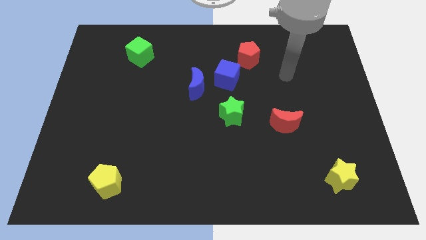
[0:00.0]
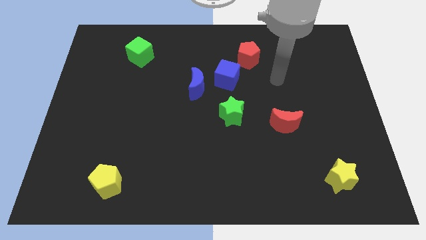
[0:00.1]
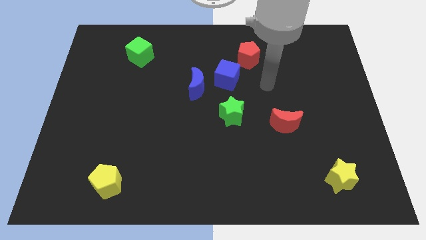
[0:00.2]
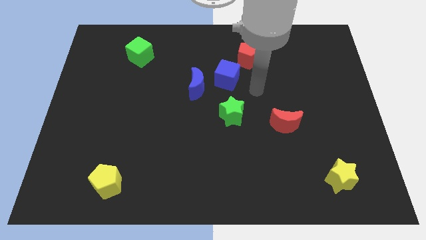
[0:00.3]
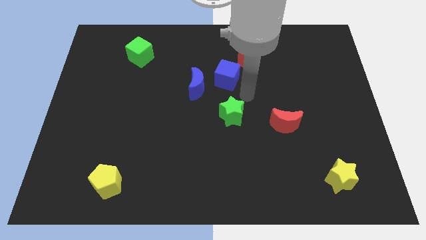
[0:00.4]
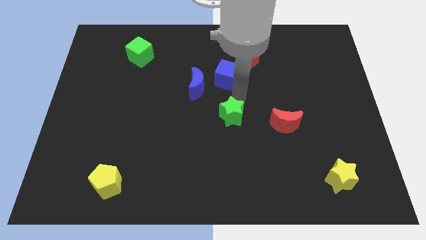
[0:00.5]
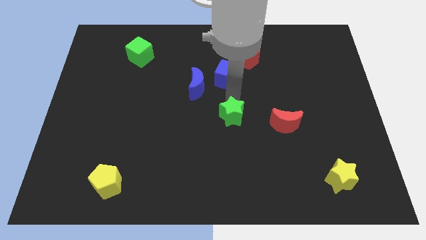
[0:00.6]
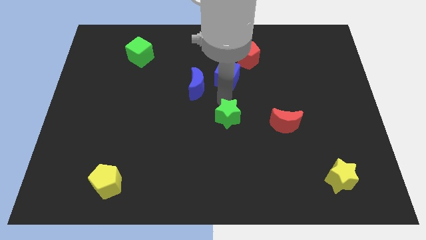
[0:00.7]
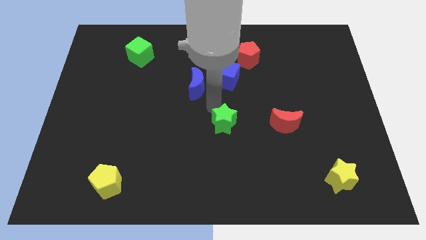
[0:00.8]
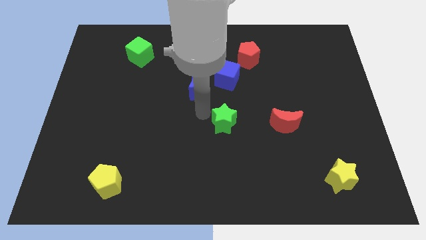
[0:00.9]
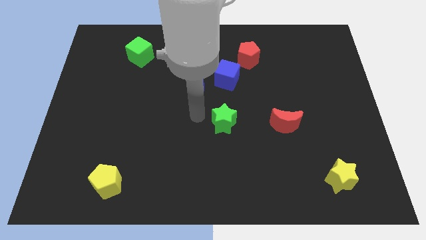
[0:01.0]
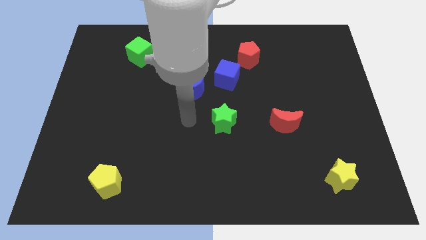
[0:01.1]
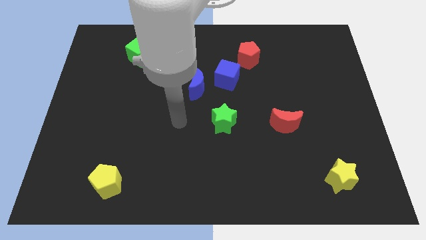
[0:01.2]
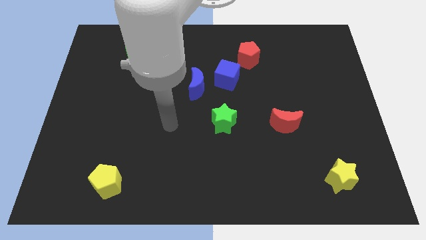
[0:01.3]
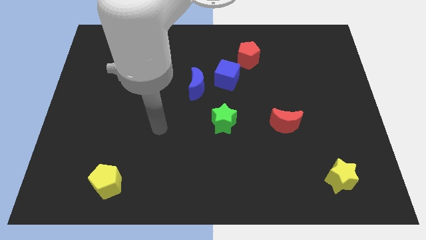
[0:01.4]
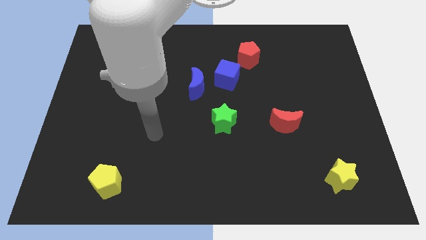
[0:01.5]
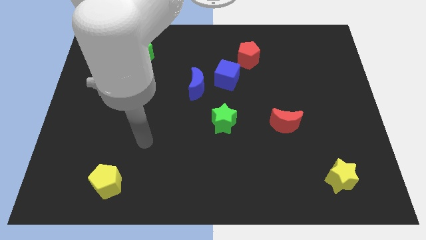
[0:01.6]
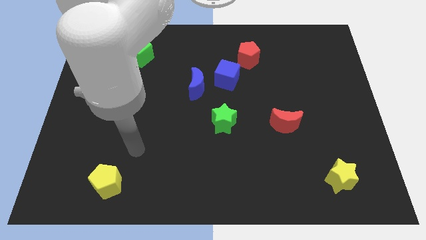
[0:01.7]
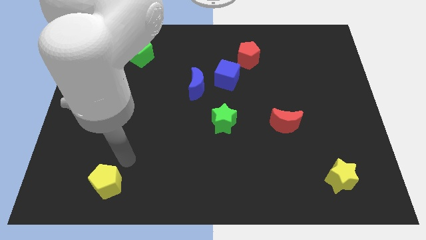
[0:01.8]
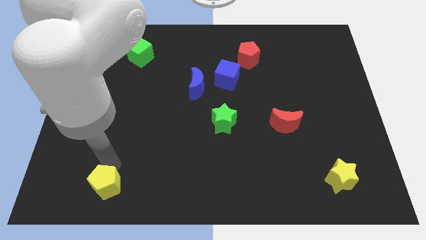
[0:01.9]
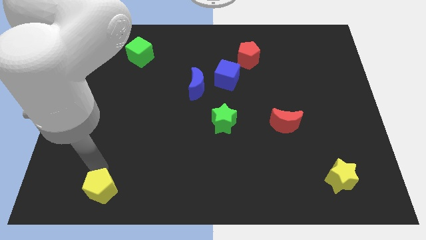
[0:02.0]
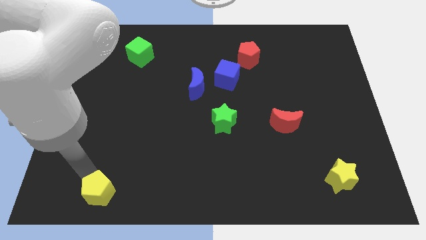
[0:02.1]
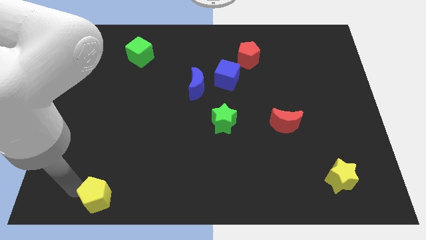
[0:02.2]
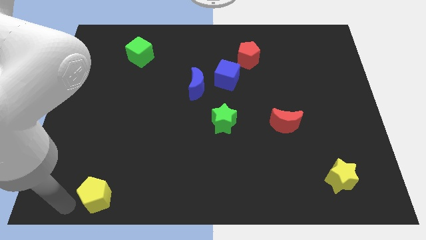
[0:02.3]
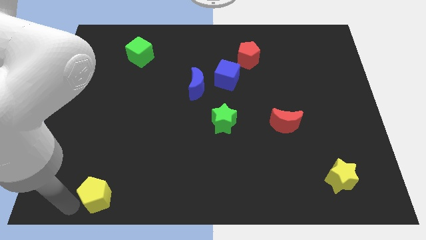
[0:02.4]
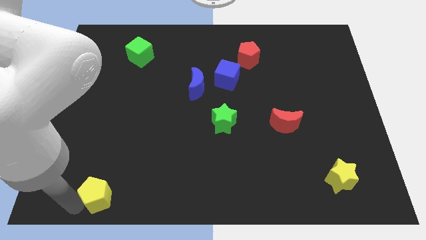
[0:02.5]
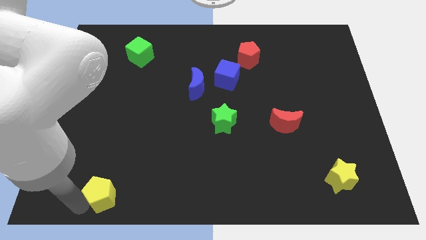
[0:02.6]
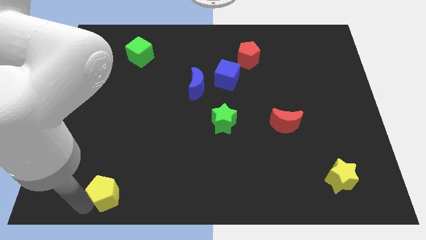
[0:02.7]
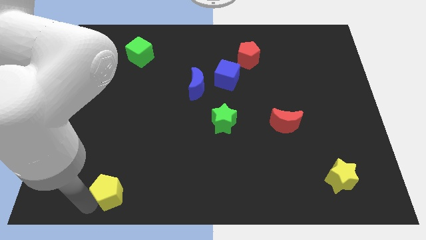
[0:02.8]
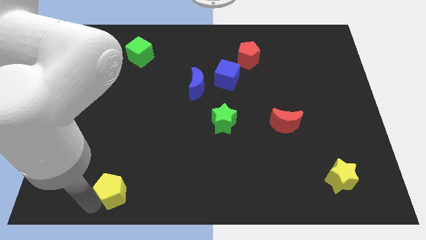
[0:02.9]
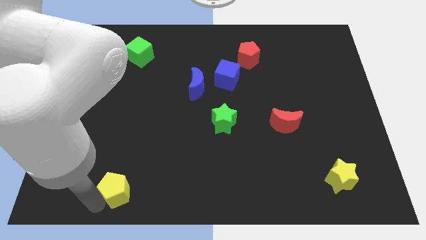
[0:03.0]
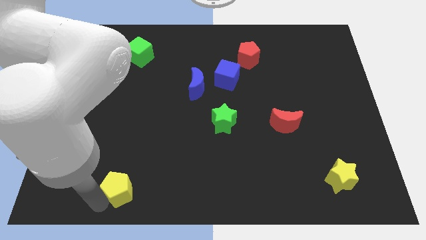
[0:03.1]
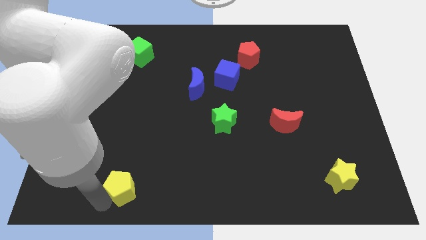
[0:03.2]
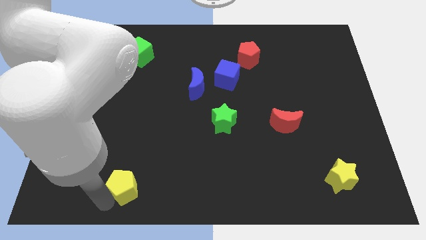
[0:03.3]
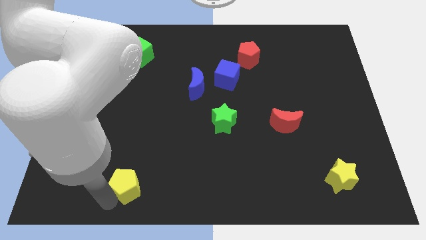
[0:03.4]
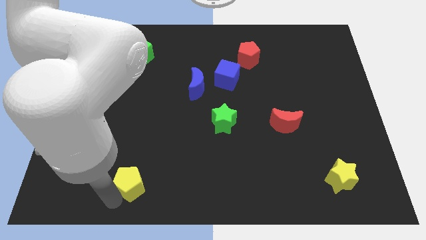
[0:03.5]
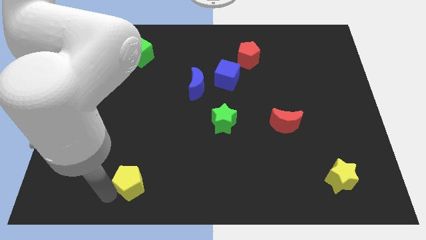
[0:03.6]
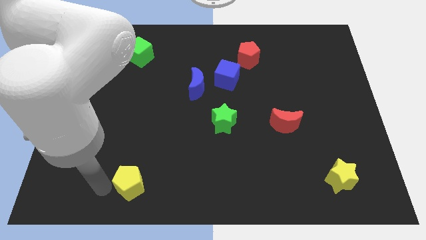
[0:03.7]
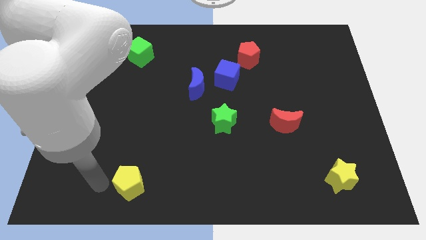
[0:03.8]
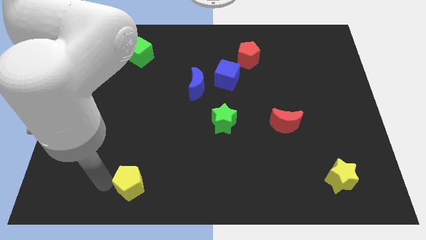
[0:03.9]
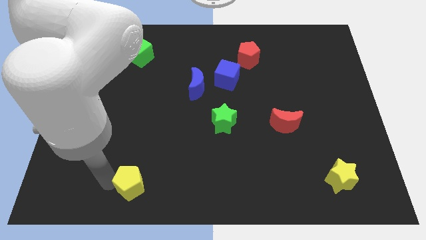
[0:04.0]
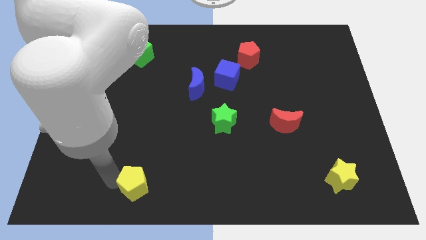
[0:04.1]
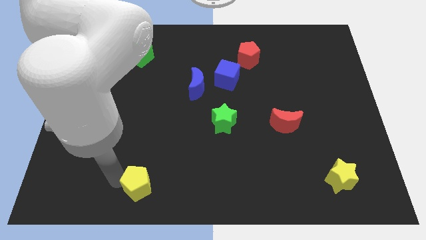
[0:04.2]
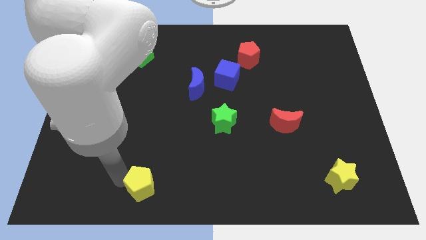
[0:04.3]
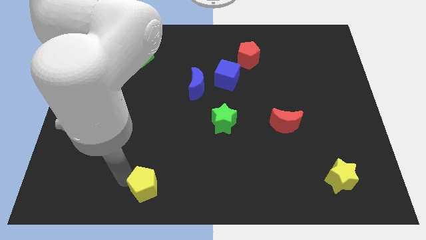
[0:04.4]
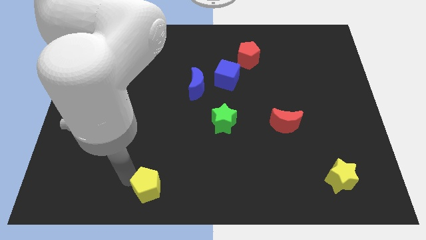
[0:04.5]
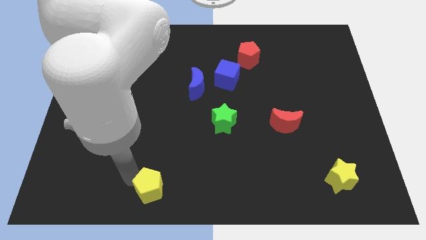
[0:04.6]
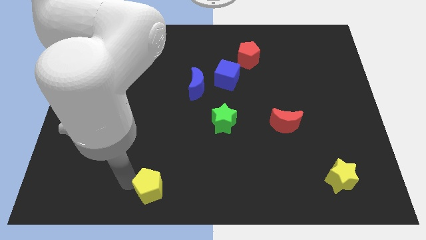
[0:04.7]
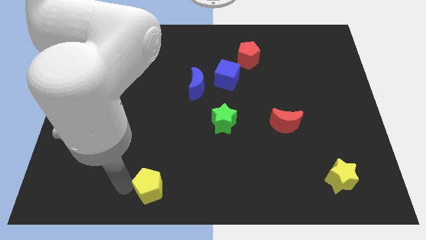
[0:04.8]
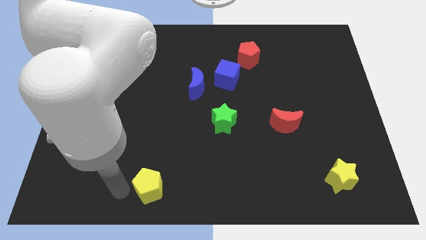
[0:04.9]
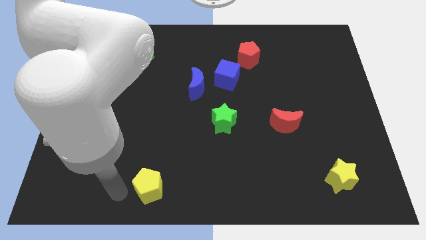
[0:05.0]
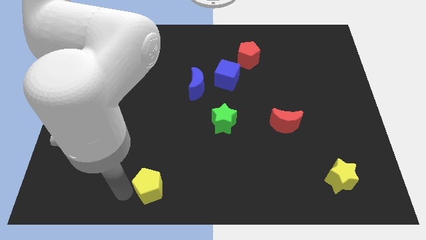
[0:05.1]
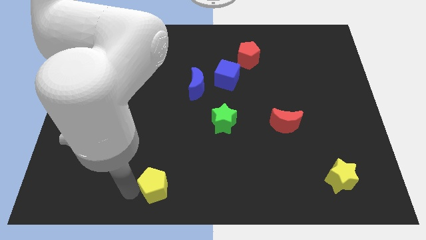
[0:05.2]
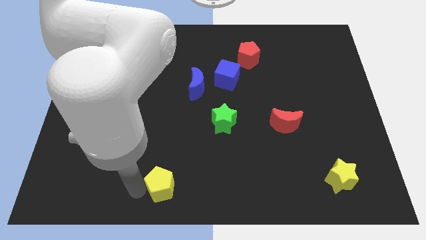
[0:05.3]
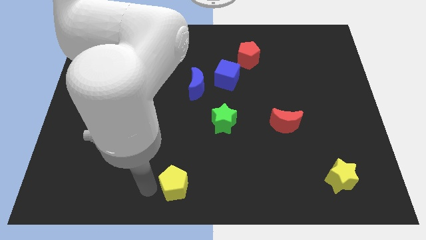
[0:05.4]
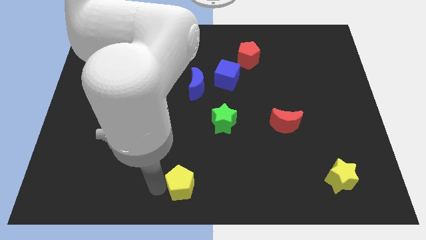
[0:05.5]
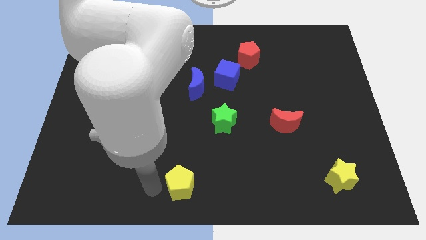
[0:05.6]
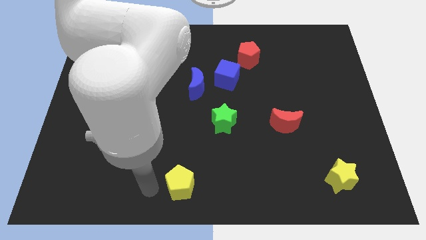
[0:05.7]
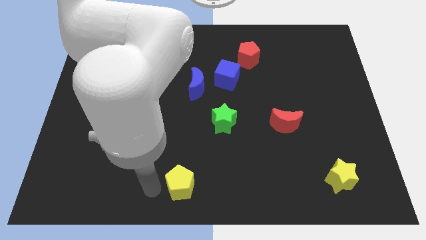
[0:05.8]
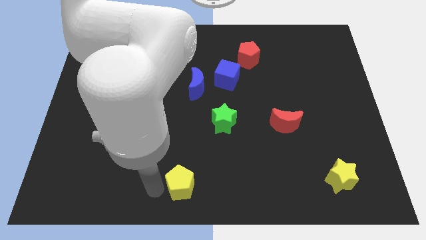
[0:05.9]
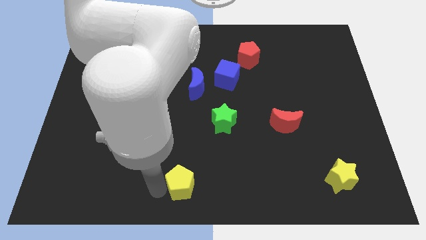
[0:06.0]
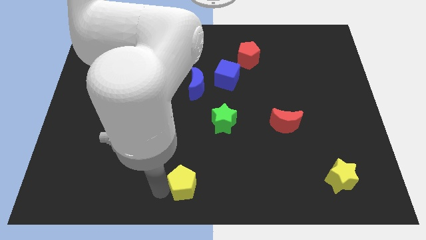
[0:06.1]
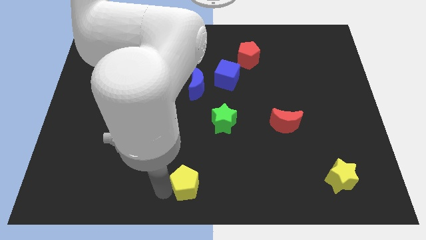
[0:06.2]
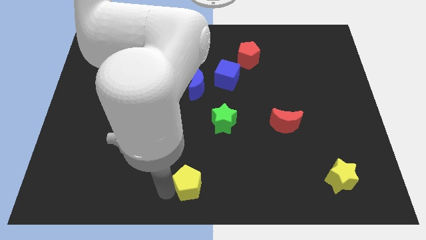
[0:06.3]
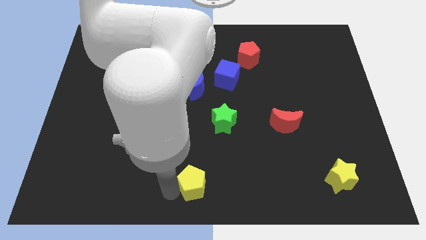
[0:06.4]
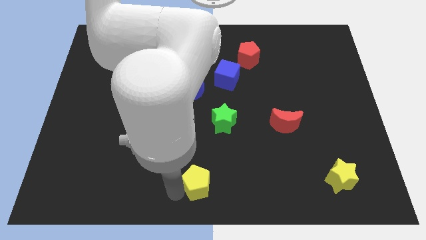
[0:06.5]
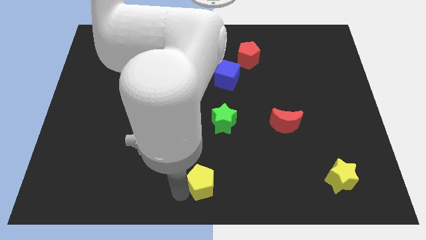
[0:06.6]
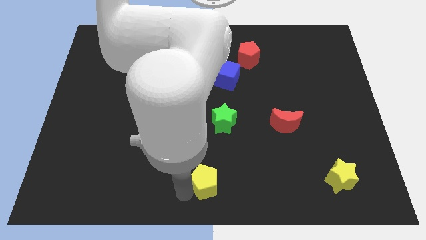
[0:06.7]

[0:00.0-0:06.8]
move the yellow pentagon right

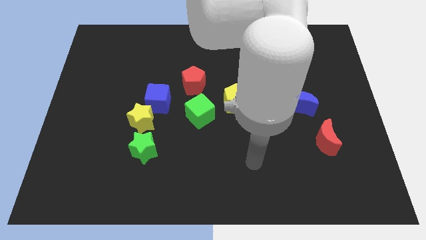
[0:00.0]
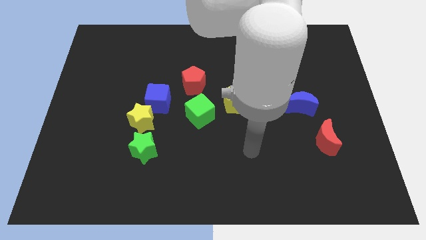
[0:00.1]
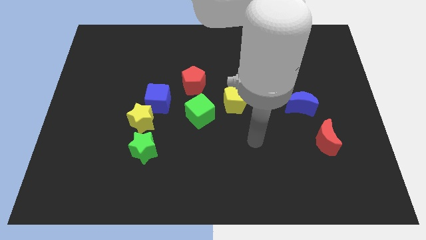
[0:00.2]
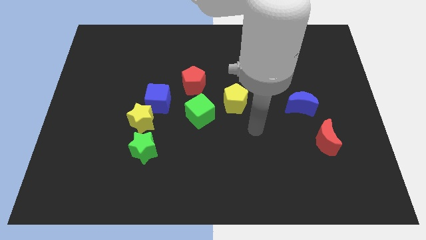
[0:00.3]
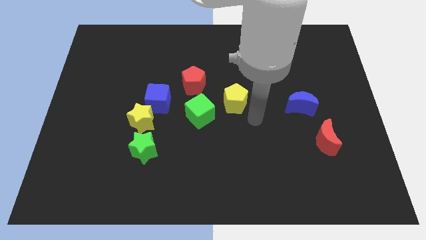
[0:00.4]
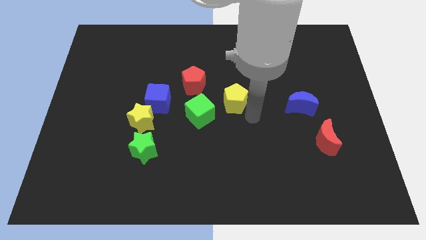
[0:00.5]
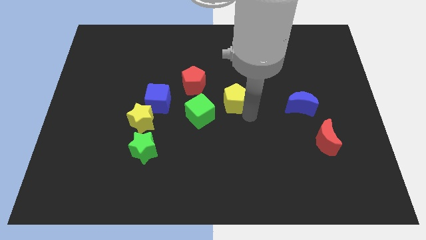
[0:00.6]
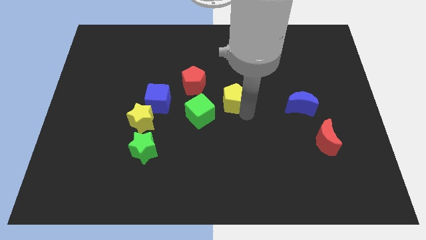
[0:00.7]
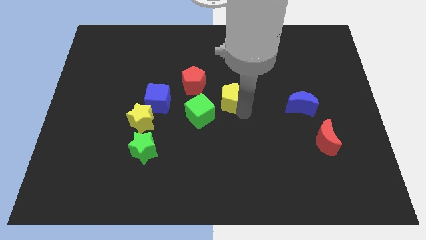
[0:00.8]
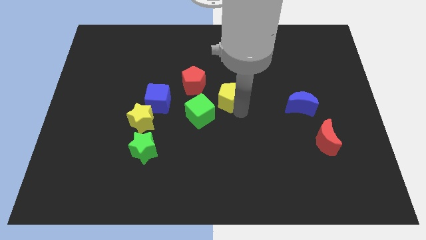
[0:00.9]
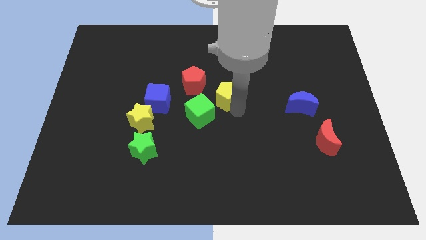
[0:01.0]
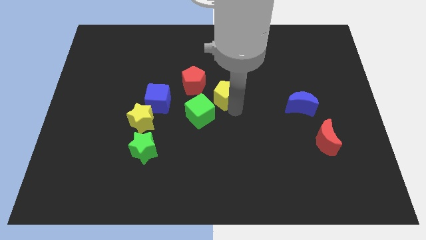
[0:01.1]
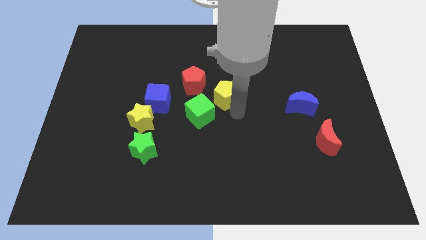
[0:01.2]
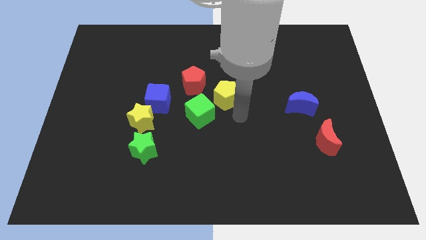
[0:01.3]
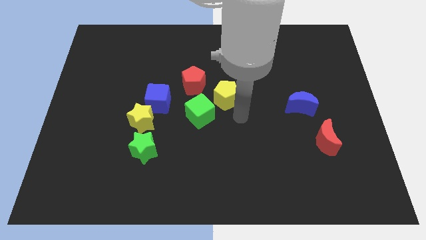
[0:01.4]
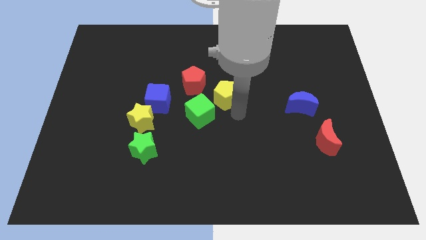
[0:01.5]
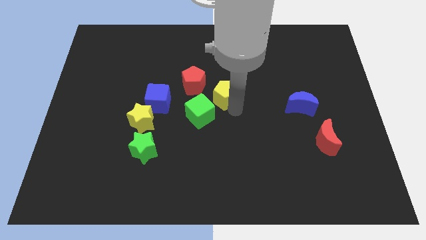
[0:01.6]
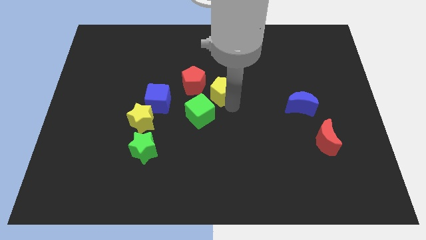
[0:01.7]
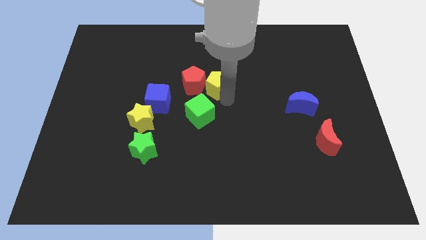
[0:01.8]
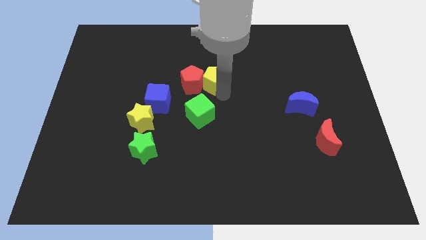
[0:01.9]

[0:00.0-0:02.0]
slide the yellow pentagon somewhat upwards and then to the left
